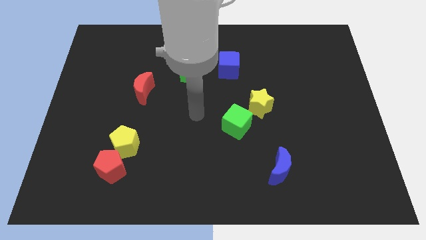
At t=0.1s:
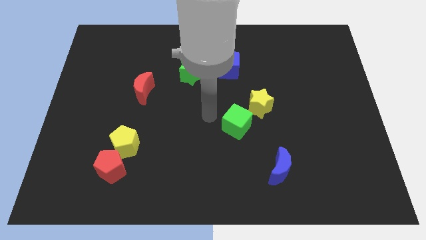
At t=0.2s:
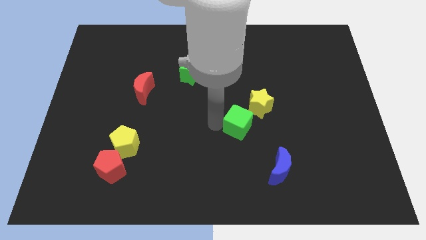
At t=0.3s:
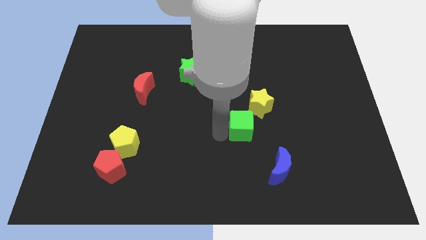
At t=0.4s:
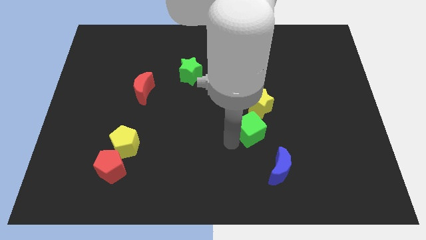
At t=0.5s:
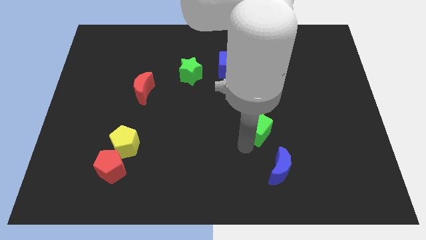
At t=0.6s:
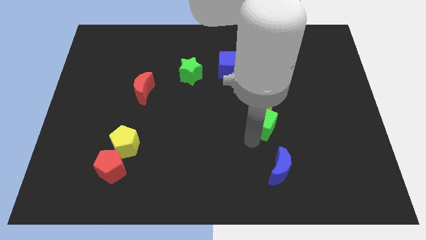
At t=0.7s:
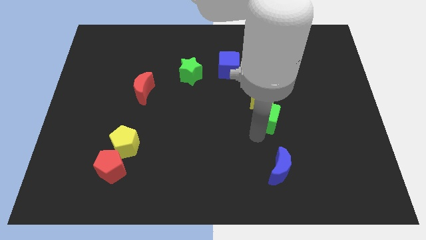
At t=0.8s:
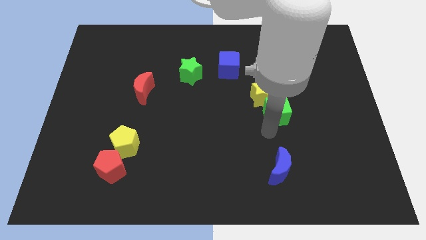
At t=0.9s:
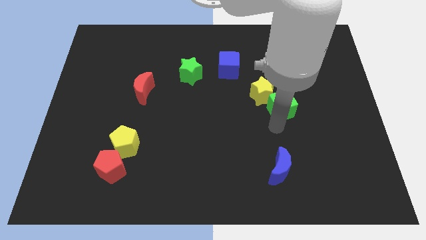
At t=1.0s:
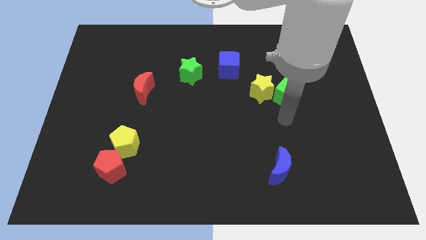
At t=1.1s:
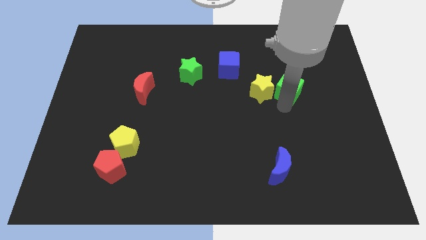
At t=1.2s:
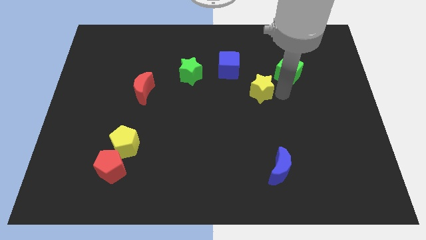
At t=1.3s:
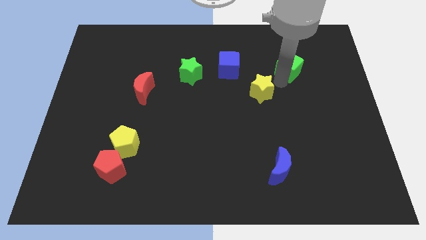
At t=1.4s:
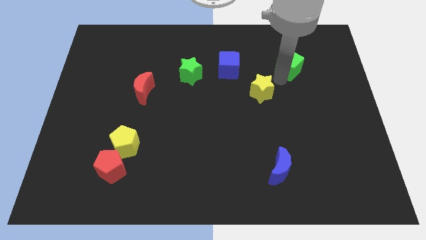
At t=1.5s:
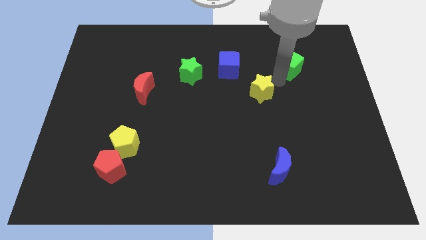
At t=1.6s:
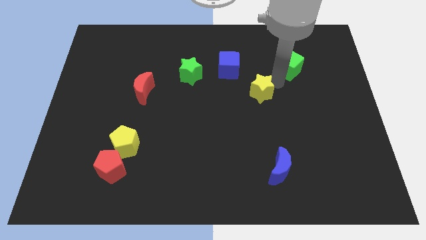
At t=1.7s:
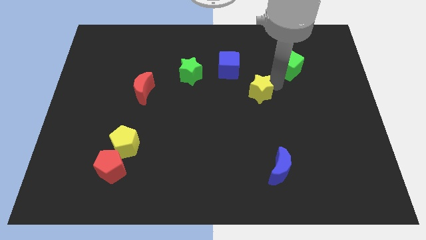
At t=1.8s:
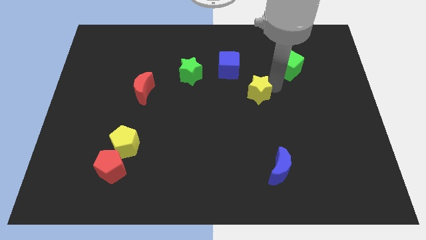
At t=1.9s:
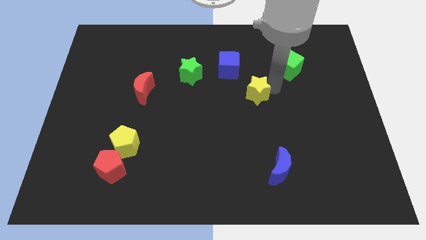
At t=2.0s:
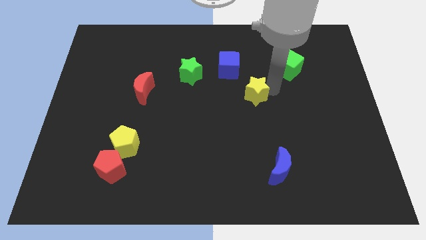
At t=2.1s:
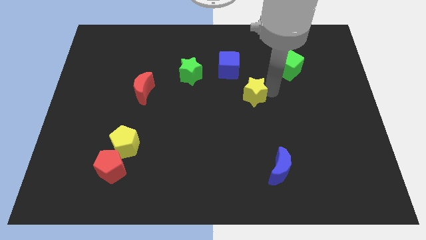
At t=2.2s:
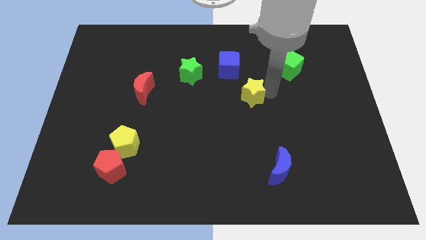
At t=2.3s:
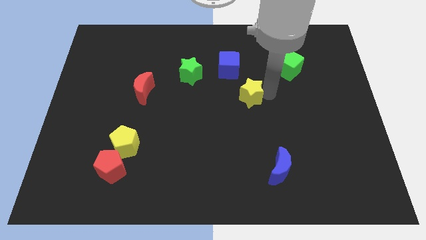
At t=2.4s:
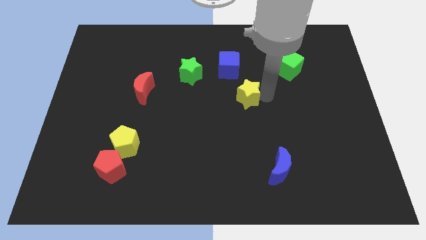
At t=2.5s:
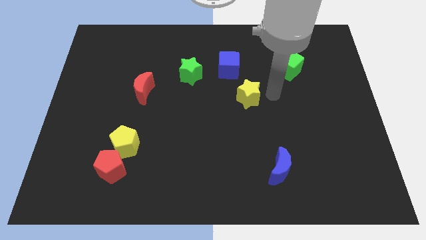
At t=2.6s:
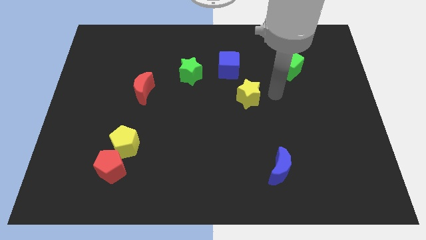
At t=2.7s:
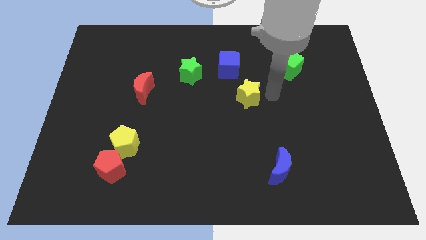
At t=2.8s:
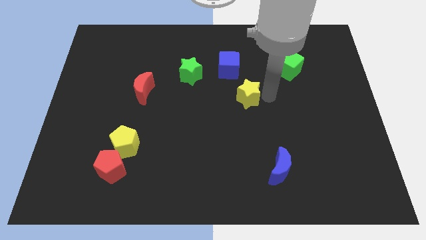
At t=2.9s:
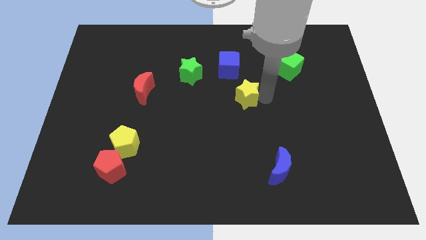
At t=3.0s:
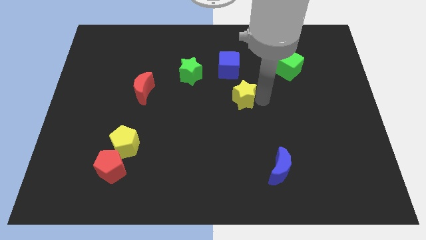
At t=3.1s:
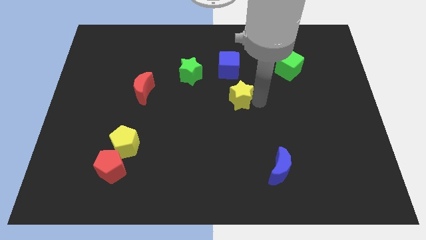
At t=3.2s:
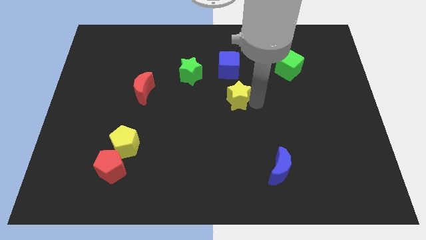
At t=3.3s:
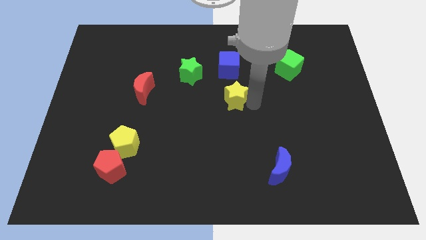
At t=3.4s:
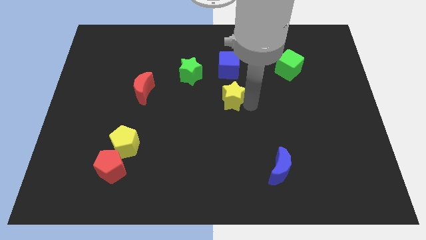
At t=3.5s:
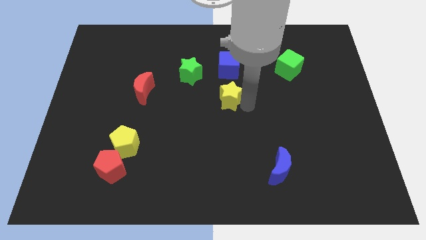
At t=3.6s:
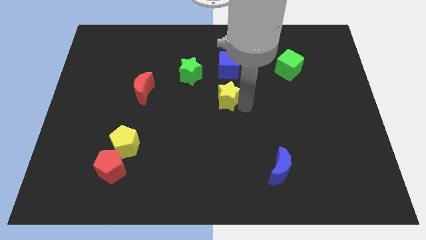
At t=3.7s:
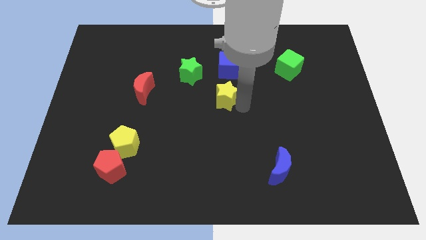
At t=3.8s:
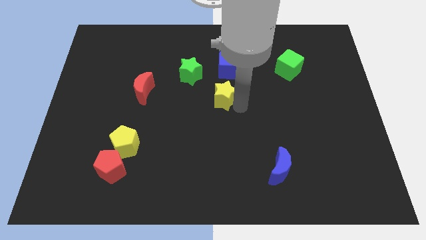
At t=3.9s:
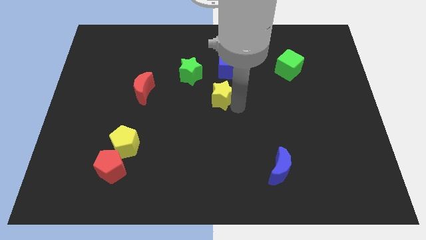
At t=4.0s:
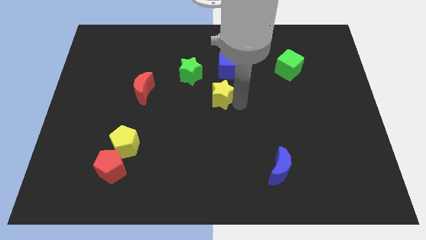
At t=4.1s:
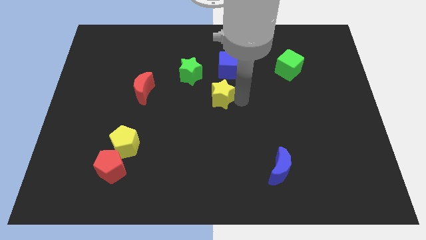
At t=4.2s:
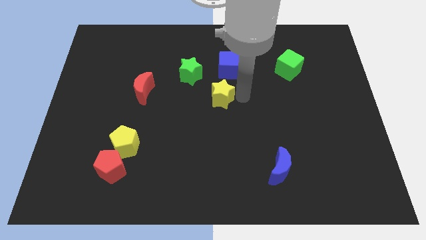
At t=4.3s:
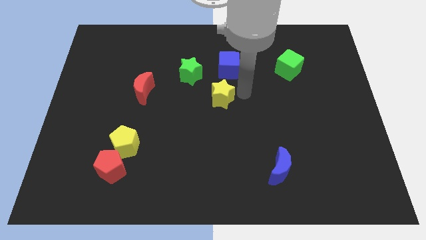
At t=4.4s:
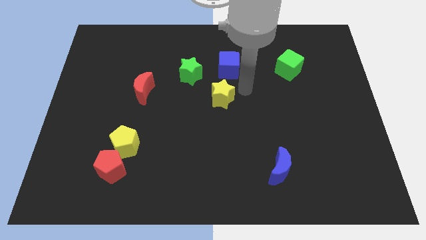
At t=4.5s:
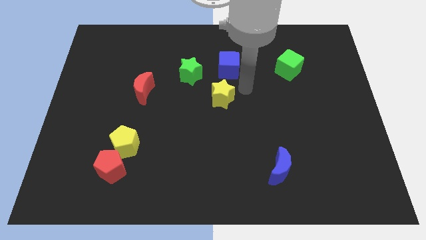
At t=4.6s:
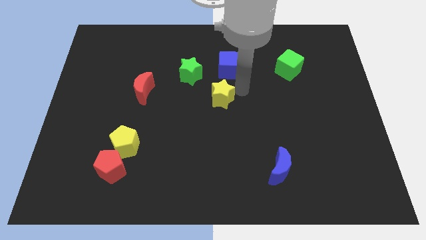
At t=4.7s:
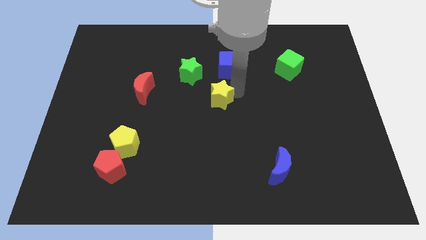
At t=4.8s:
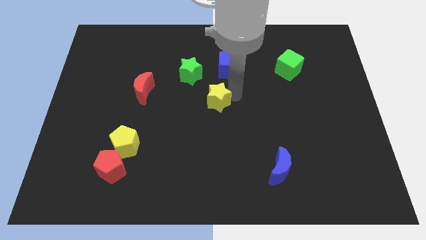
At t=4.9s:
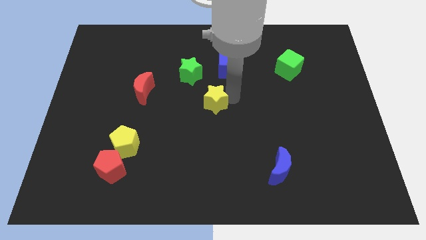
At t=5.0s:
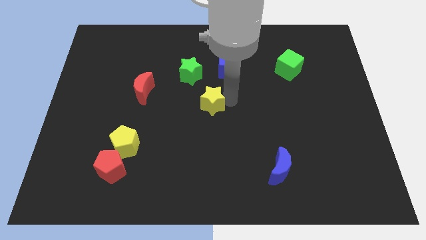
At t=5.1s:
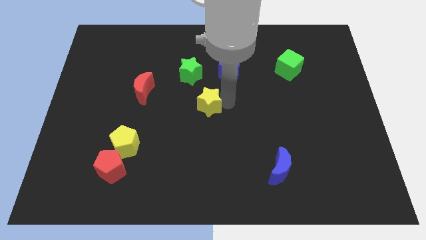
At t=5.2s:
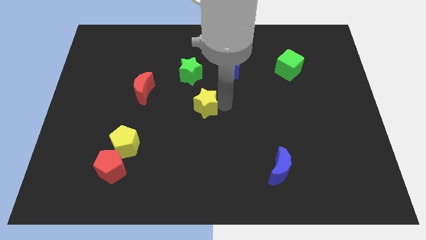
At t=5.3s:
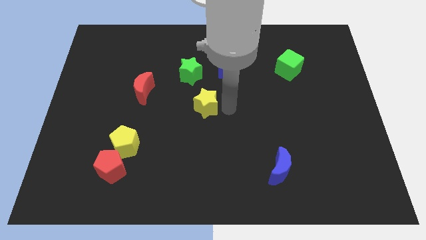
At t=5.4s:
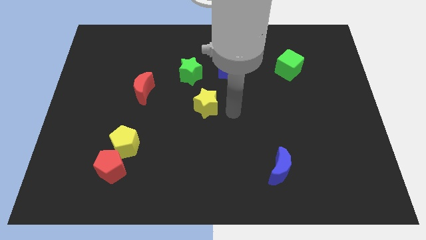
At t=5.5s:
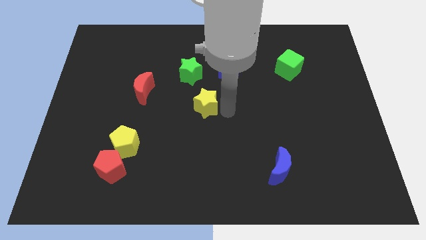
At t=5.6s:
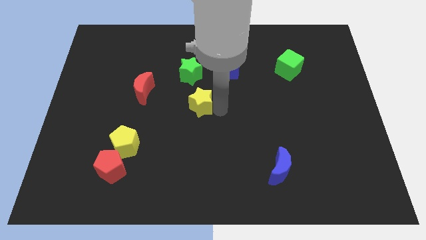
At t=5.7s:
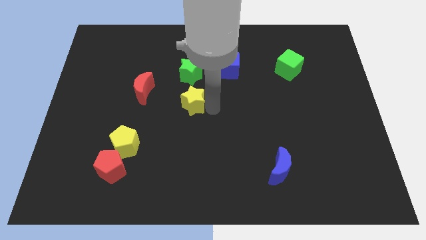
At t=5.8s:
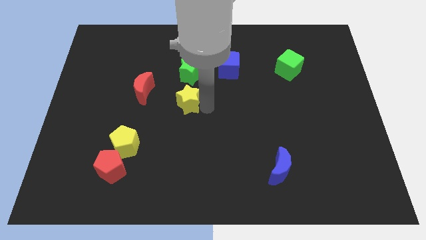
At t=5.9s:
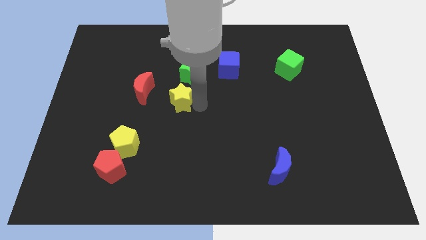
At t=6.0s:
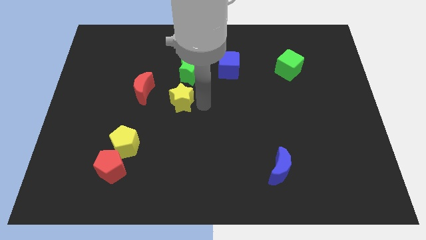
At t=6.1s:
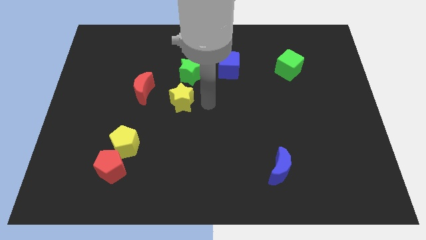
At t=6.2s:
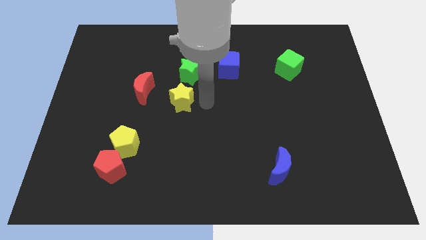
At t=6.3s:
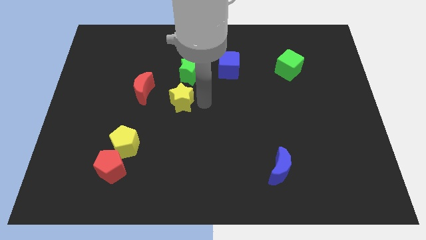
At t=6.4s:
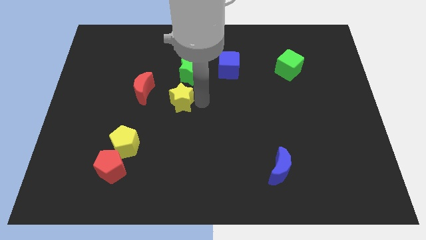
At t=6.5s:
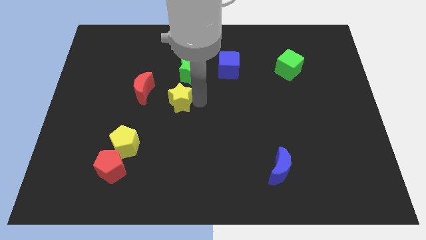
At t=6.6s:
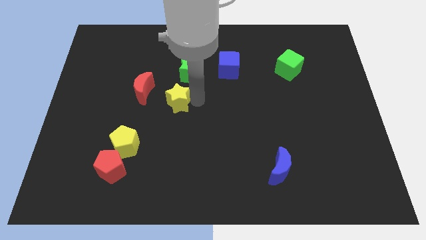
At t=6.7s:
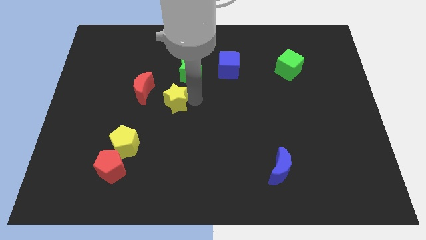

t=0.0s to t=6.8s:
push the yellow star left

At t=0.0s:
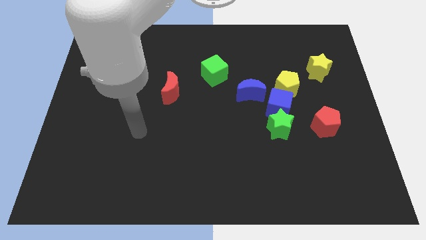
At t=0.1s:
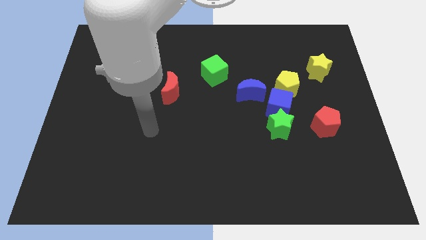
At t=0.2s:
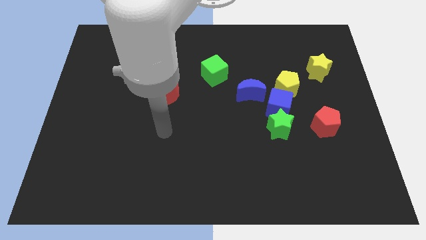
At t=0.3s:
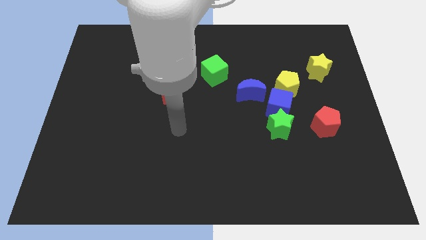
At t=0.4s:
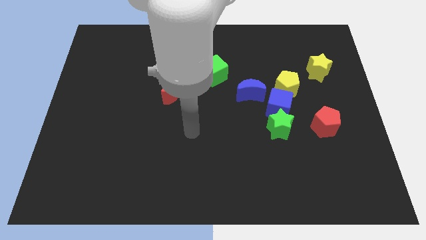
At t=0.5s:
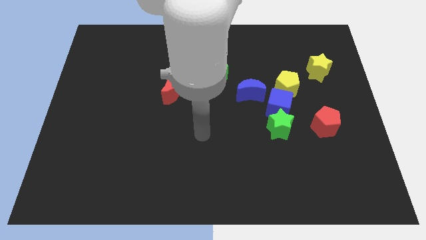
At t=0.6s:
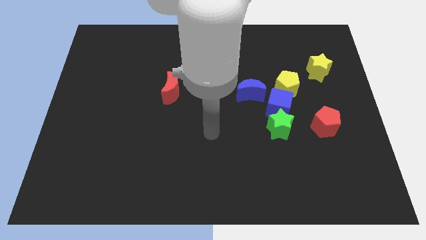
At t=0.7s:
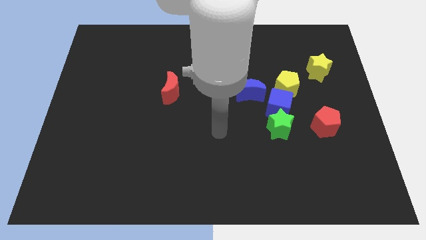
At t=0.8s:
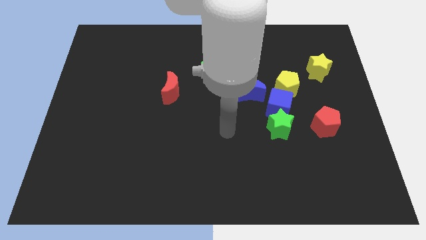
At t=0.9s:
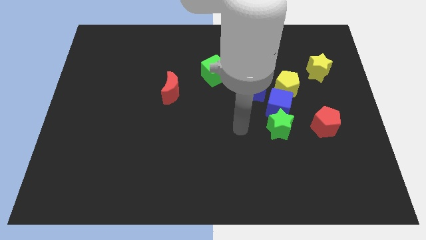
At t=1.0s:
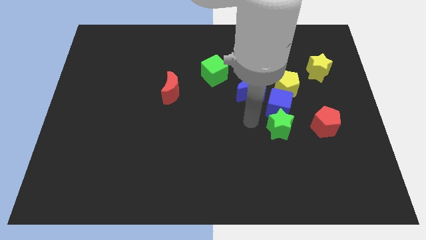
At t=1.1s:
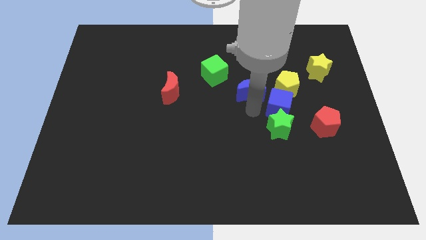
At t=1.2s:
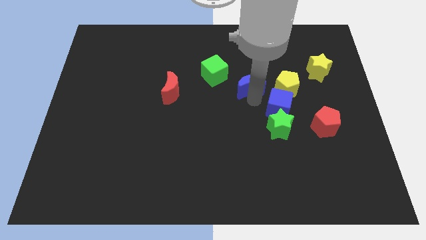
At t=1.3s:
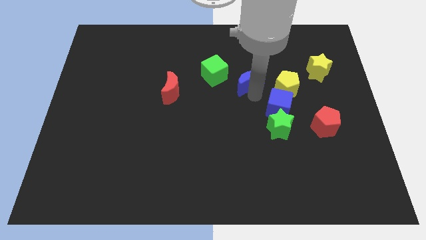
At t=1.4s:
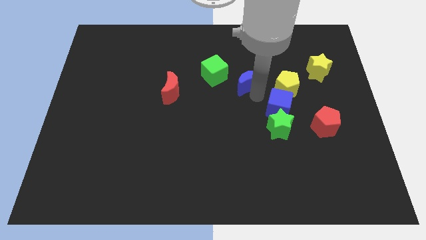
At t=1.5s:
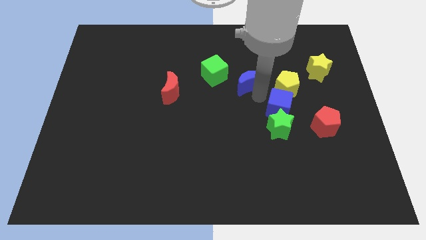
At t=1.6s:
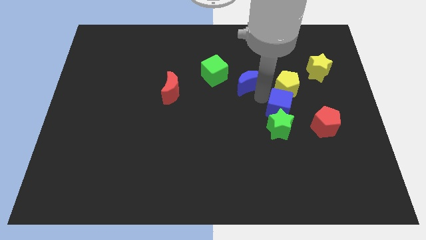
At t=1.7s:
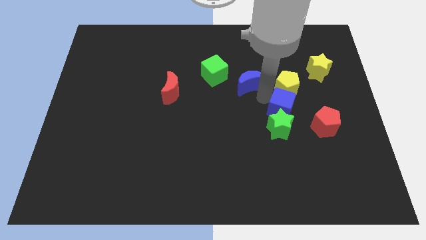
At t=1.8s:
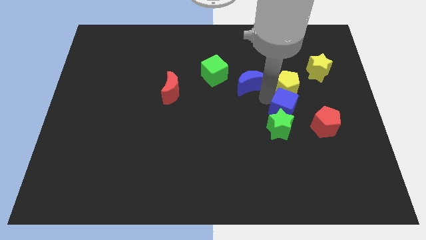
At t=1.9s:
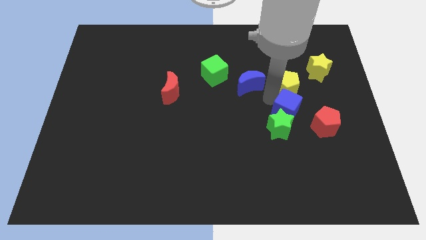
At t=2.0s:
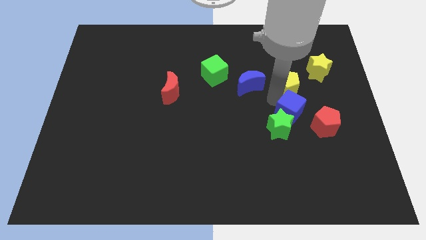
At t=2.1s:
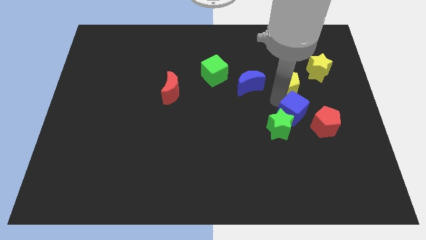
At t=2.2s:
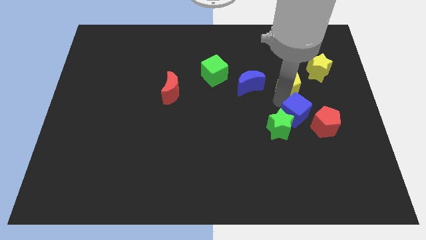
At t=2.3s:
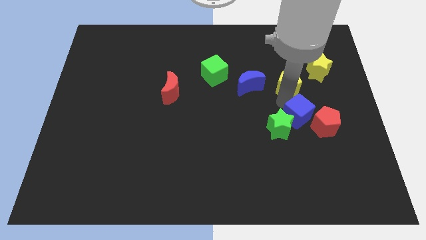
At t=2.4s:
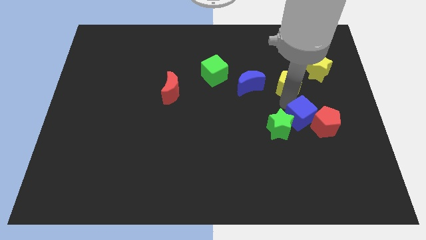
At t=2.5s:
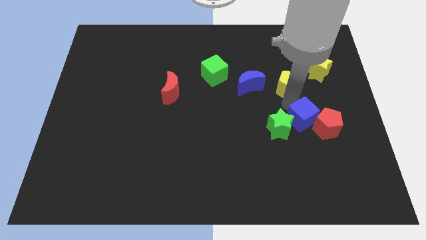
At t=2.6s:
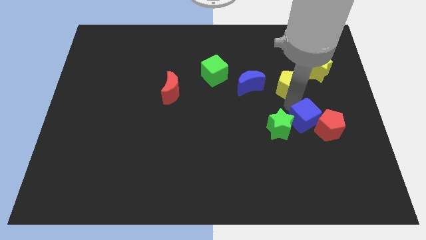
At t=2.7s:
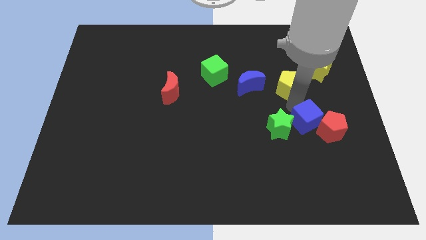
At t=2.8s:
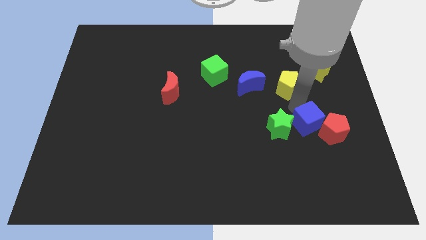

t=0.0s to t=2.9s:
move the blue cube somewhat diagonally down and right
